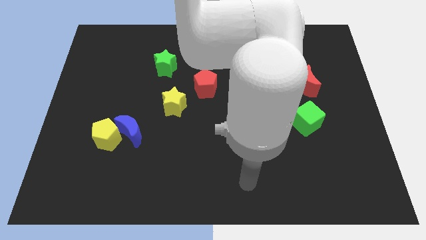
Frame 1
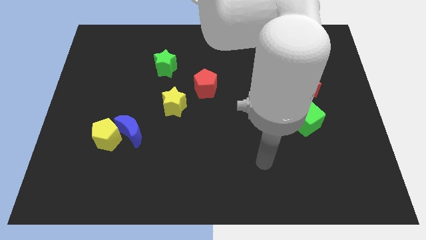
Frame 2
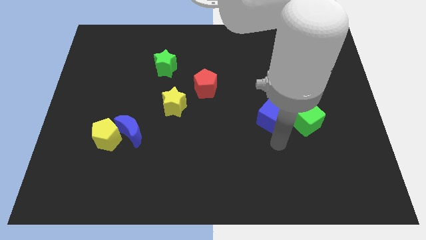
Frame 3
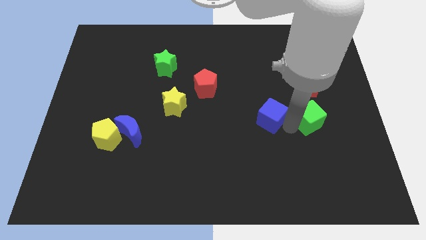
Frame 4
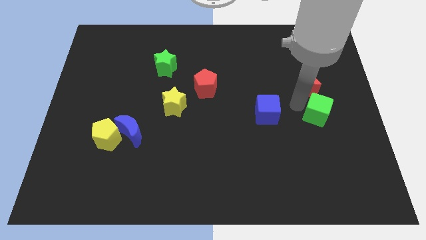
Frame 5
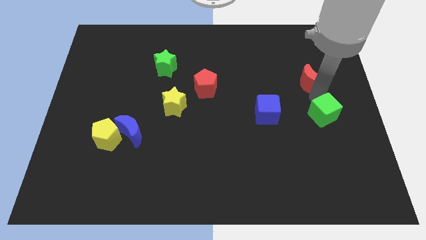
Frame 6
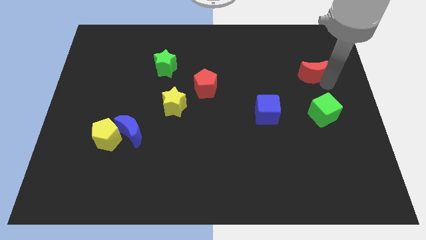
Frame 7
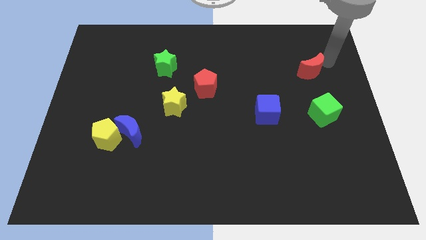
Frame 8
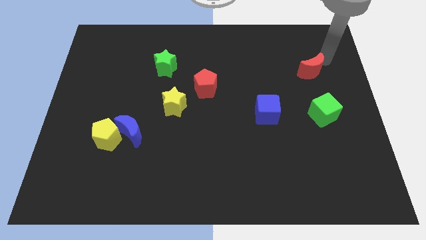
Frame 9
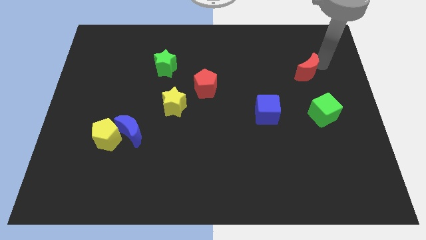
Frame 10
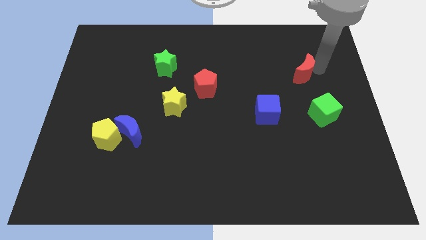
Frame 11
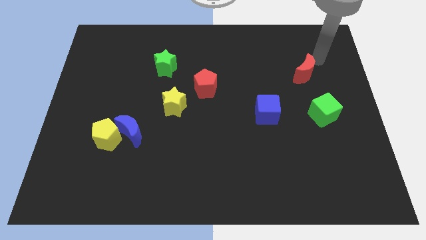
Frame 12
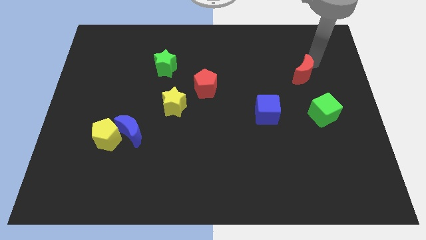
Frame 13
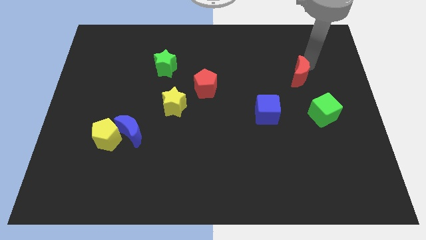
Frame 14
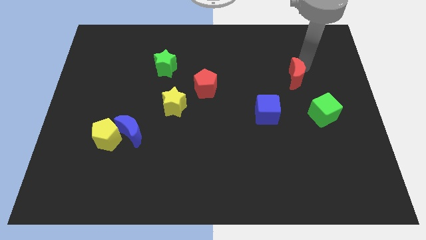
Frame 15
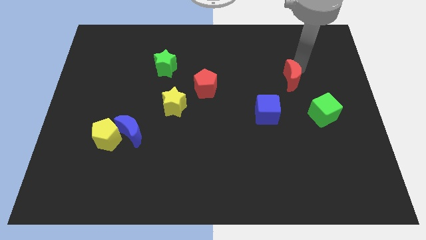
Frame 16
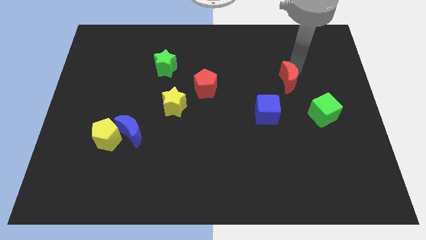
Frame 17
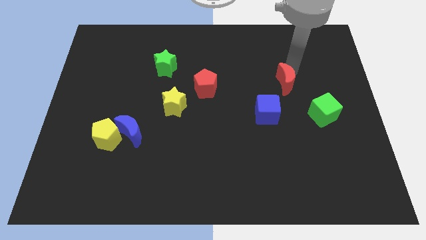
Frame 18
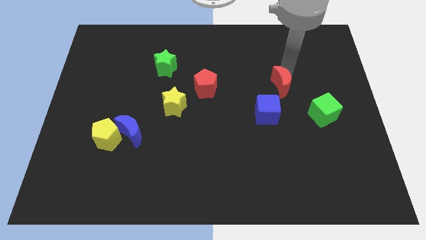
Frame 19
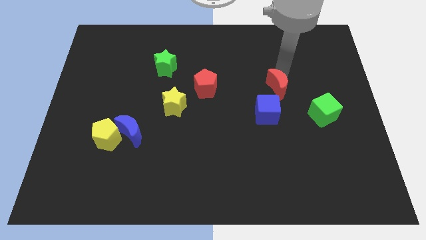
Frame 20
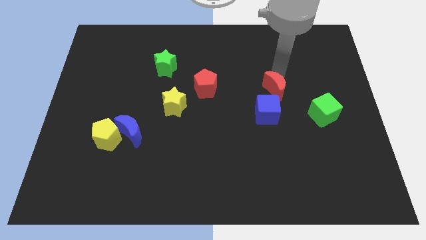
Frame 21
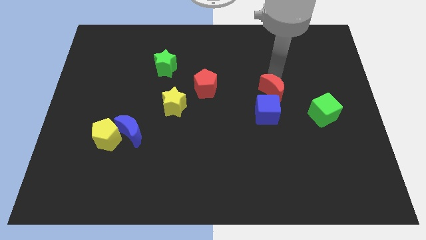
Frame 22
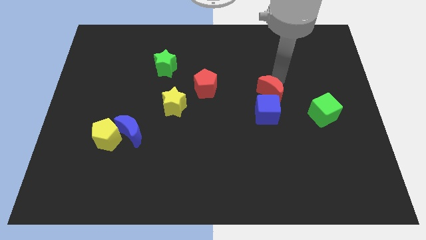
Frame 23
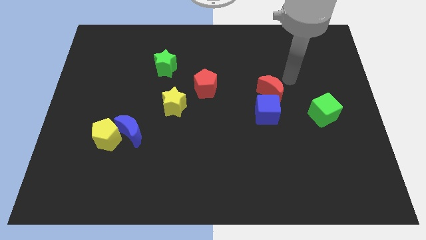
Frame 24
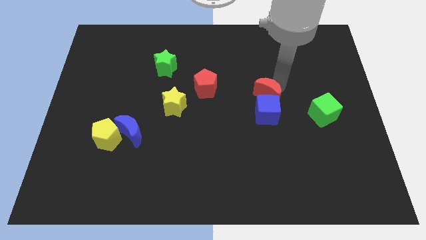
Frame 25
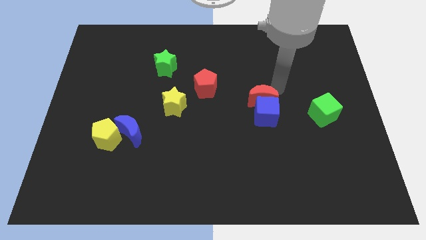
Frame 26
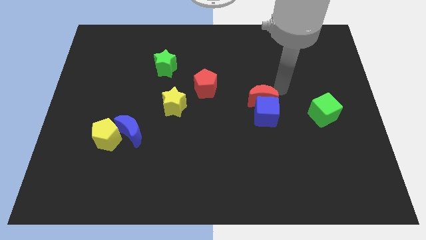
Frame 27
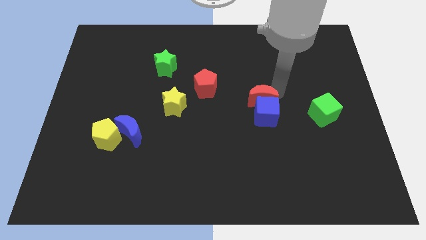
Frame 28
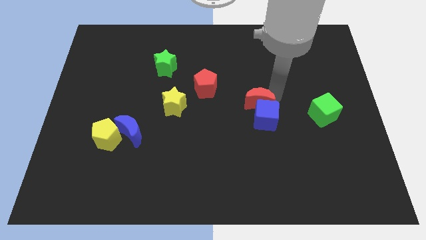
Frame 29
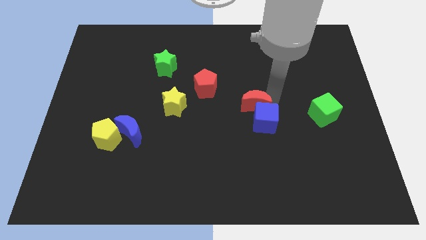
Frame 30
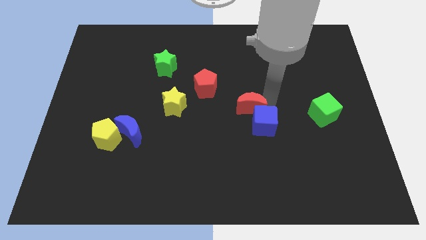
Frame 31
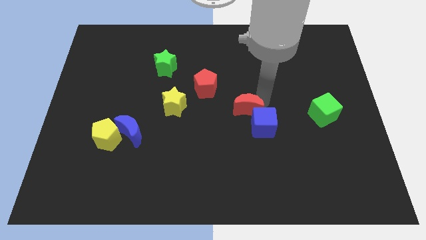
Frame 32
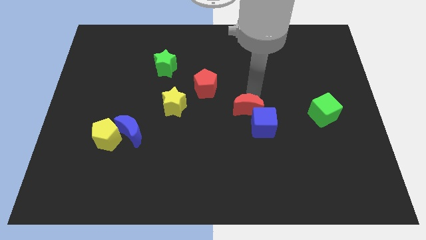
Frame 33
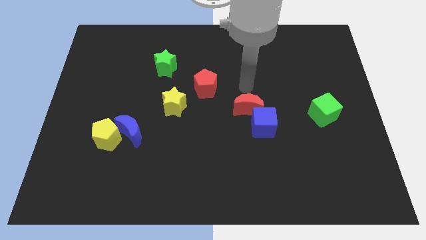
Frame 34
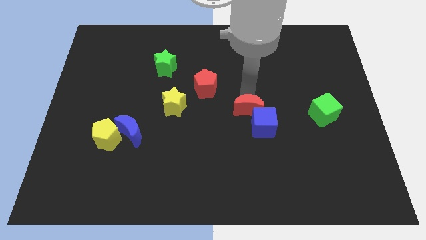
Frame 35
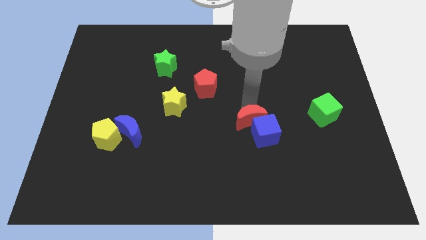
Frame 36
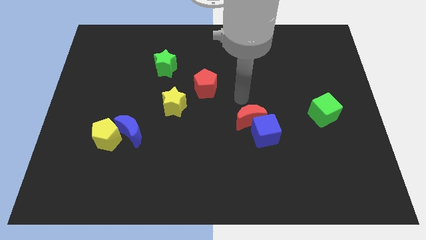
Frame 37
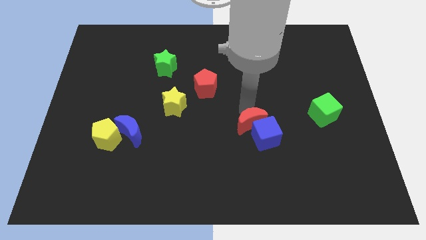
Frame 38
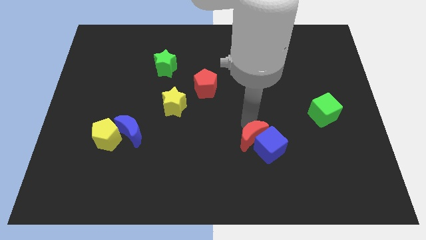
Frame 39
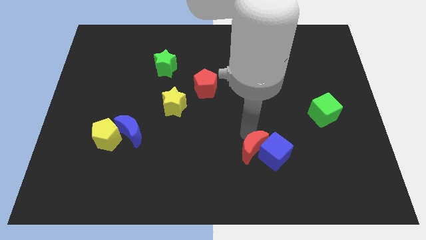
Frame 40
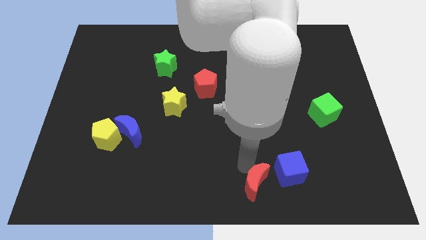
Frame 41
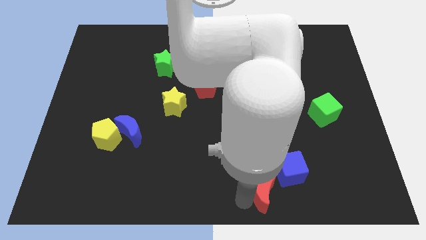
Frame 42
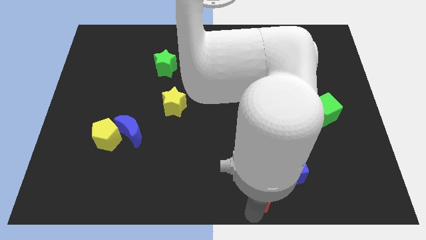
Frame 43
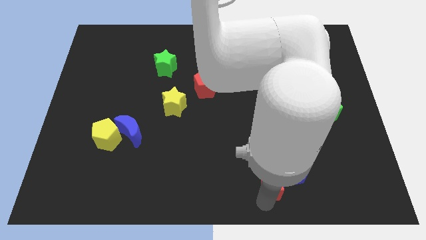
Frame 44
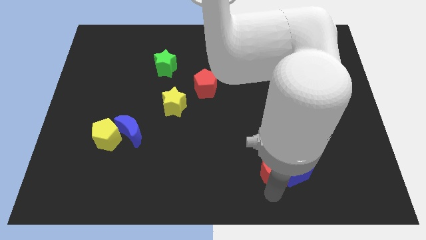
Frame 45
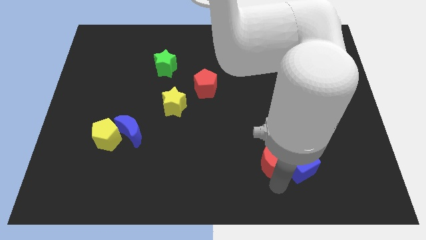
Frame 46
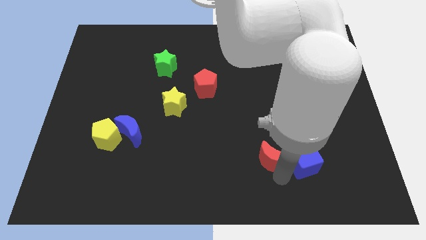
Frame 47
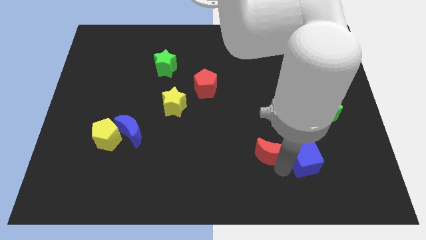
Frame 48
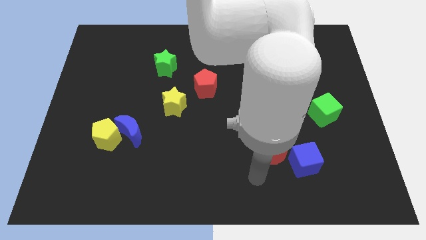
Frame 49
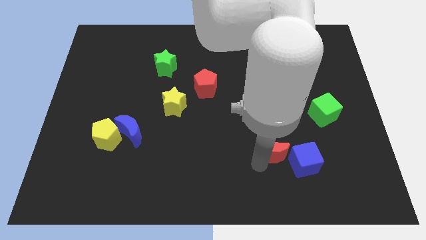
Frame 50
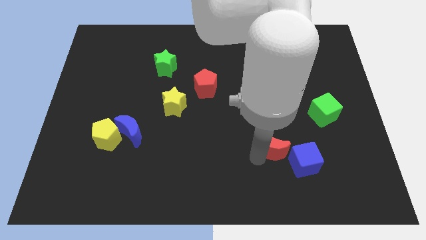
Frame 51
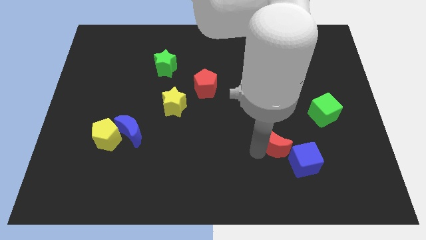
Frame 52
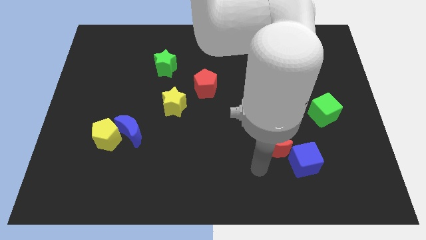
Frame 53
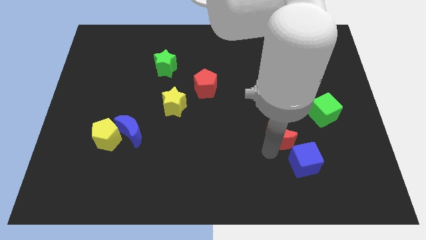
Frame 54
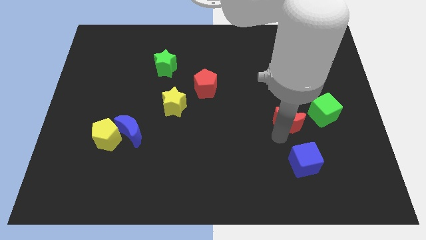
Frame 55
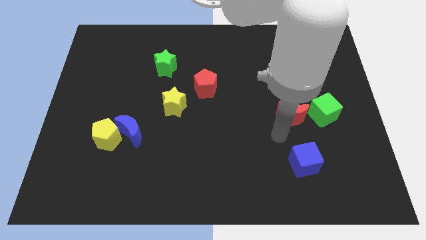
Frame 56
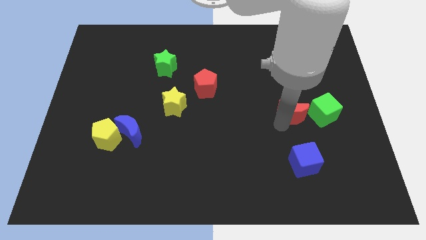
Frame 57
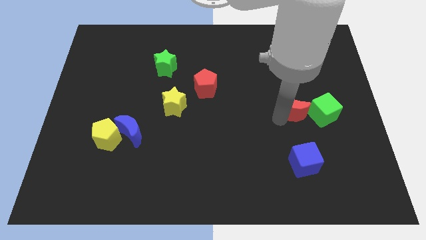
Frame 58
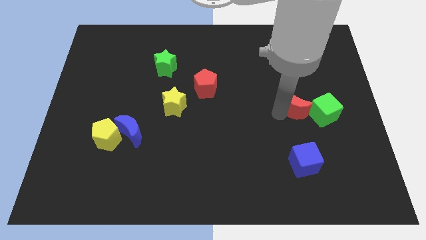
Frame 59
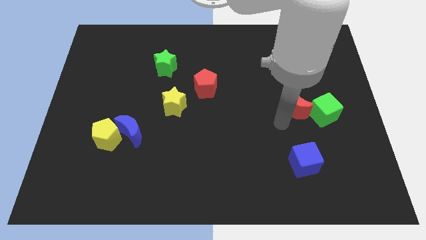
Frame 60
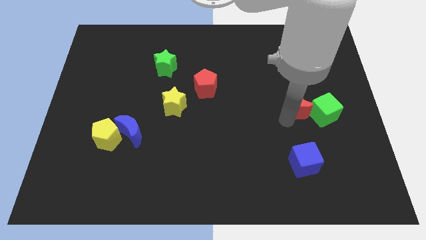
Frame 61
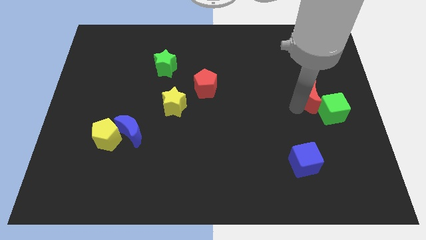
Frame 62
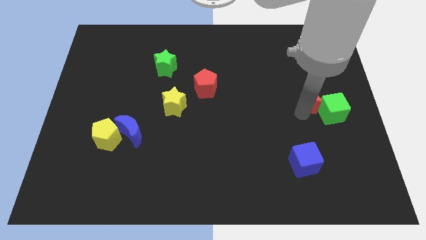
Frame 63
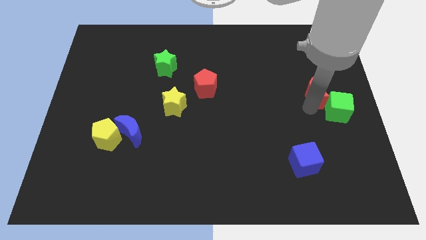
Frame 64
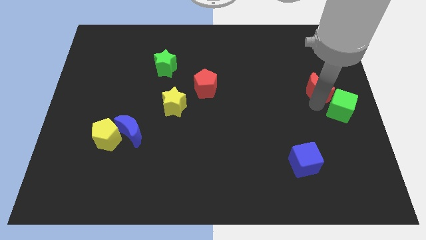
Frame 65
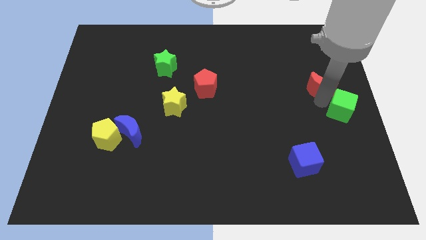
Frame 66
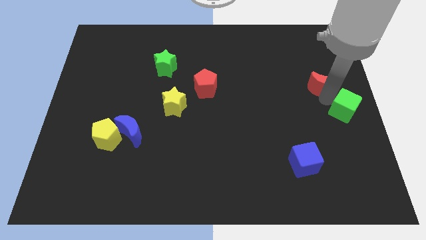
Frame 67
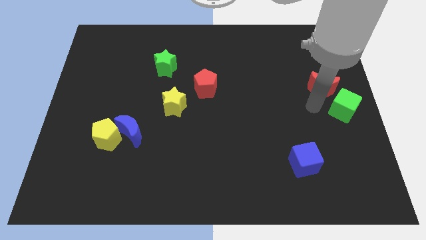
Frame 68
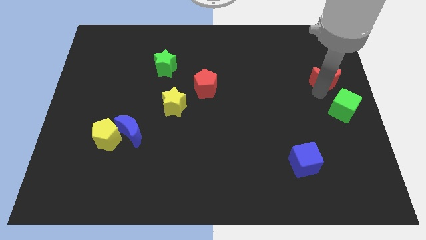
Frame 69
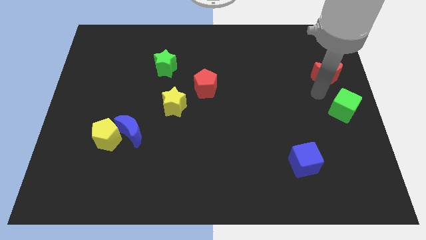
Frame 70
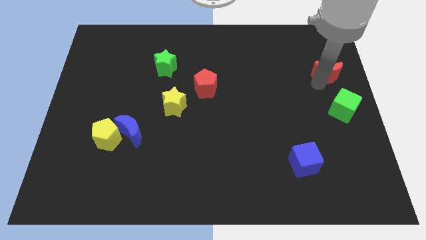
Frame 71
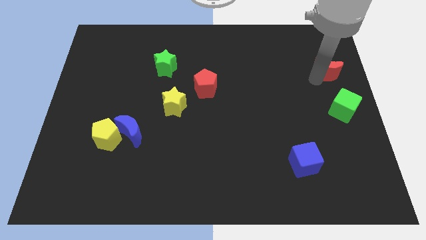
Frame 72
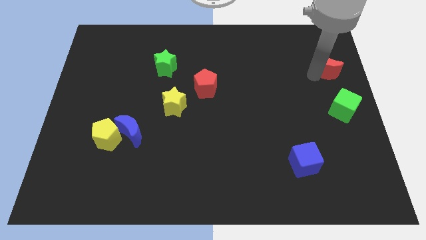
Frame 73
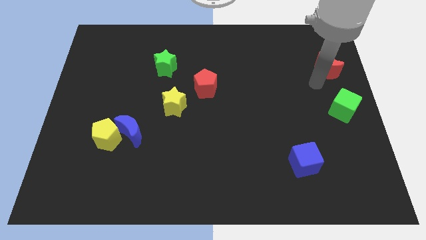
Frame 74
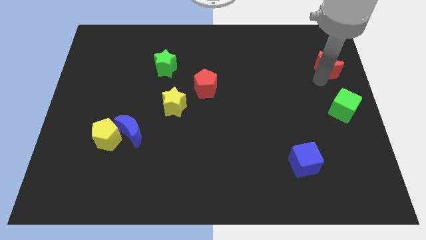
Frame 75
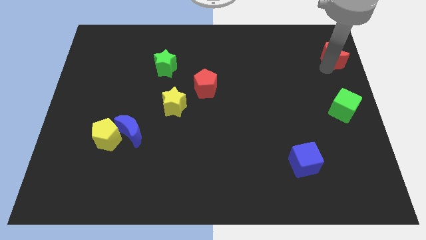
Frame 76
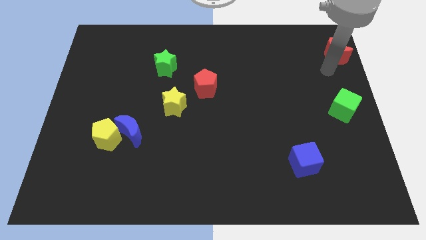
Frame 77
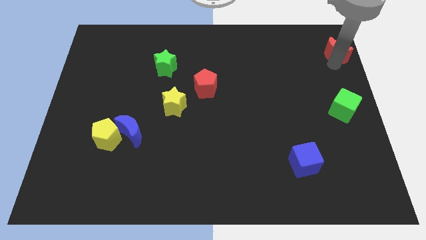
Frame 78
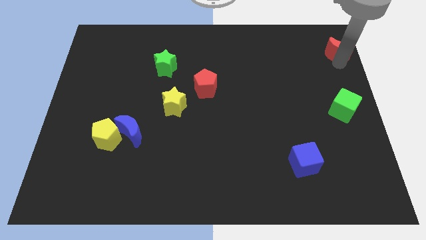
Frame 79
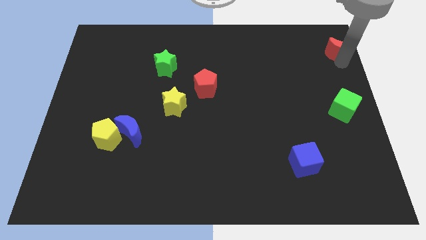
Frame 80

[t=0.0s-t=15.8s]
move the red moon to the top right of the board
